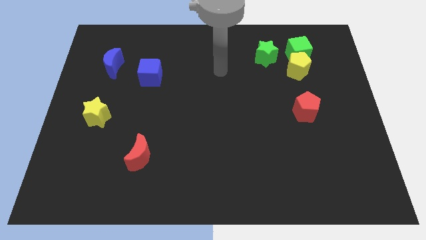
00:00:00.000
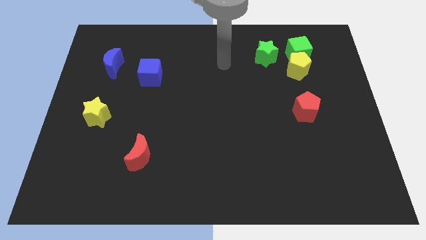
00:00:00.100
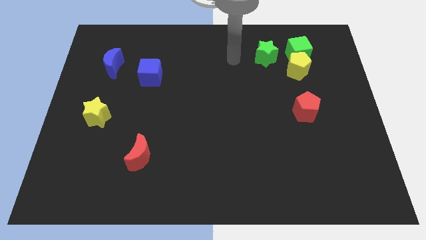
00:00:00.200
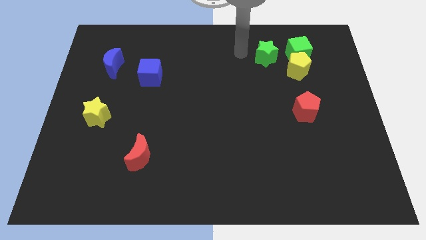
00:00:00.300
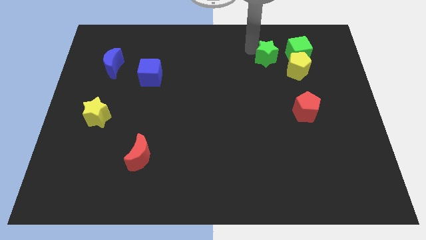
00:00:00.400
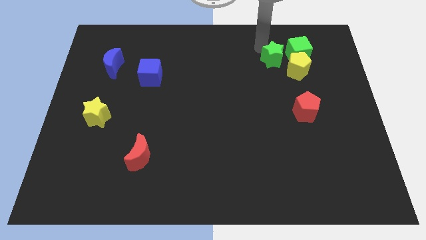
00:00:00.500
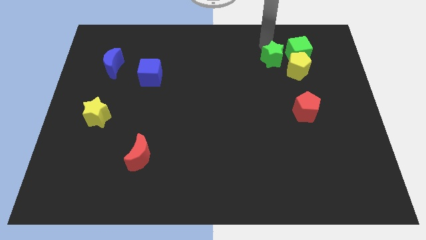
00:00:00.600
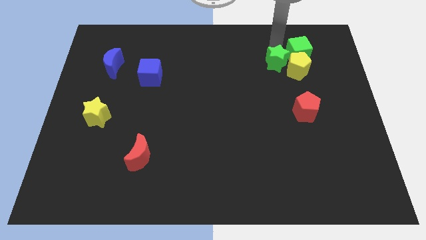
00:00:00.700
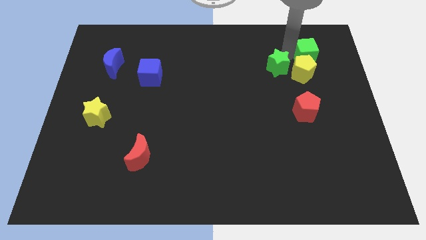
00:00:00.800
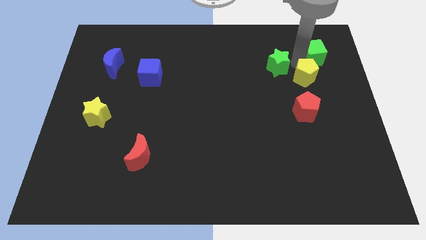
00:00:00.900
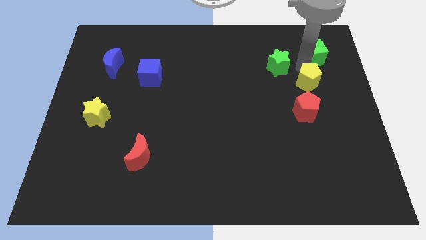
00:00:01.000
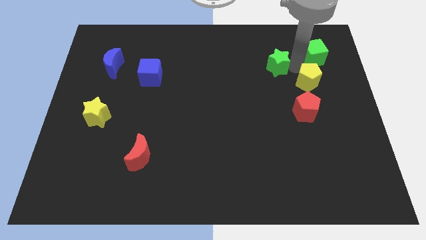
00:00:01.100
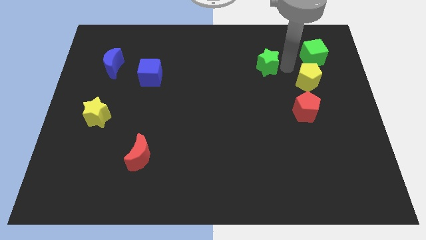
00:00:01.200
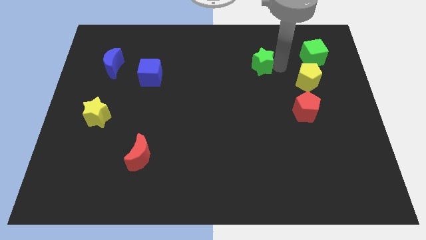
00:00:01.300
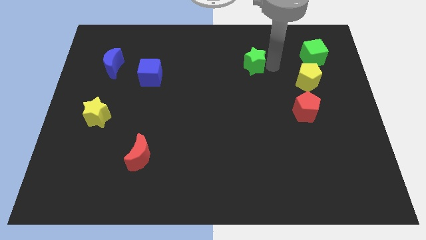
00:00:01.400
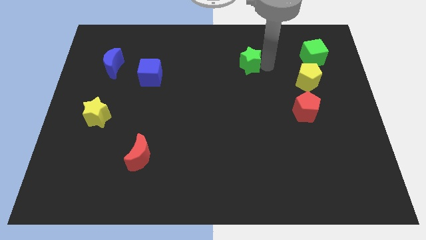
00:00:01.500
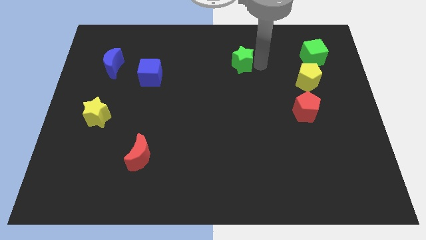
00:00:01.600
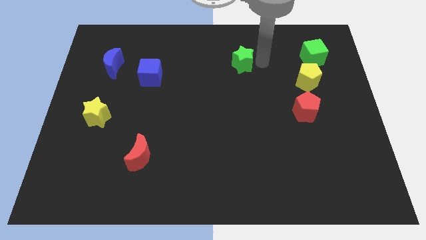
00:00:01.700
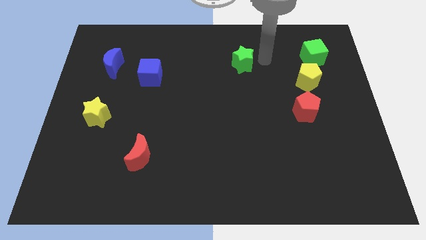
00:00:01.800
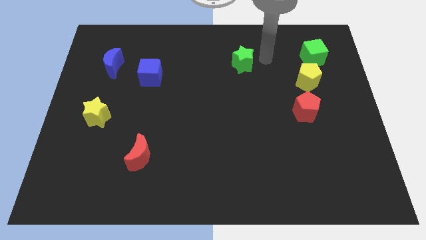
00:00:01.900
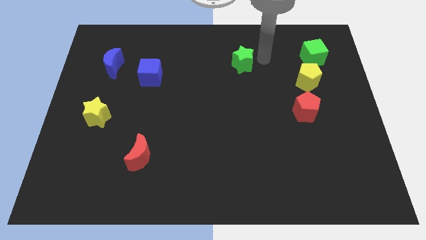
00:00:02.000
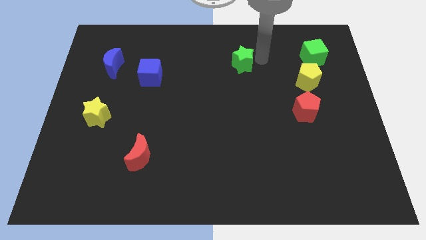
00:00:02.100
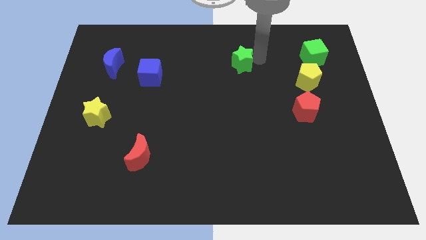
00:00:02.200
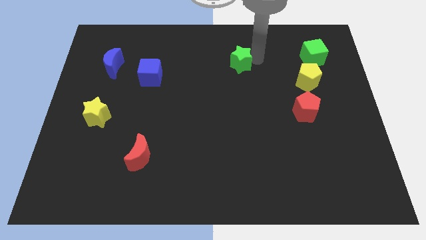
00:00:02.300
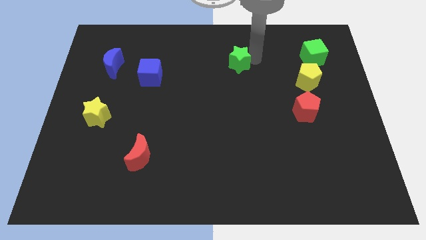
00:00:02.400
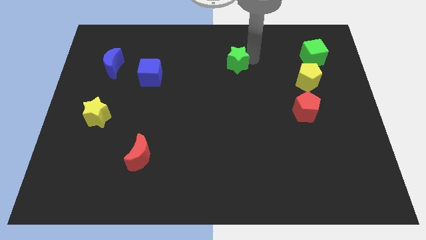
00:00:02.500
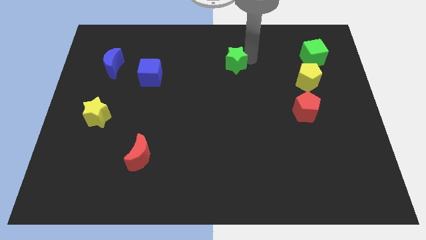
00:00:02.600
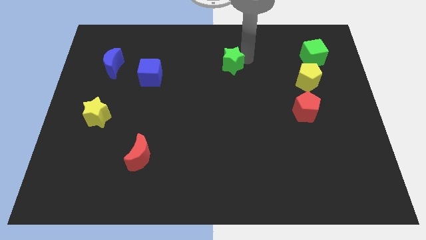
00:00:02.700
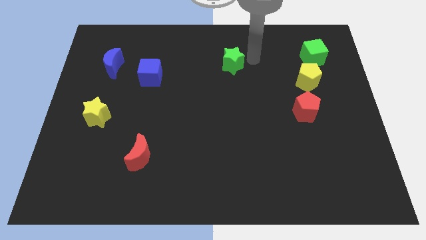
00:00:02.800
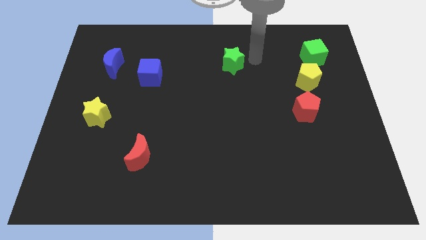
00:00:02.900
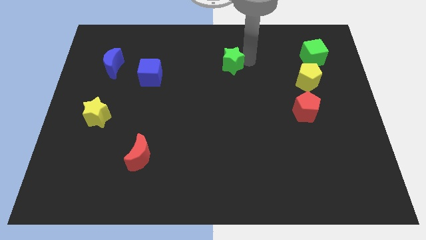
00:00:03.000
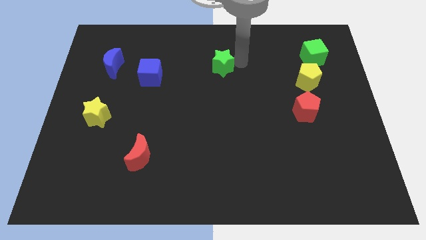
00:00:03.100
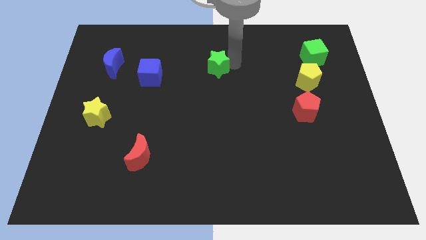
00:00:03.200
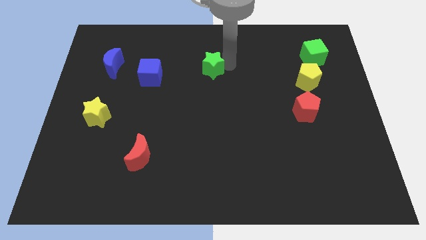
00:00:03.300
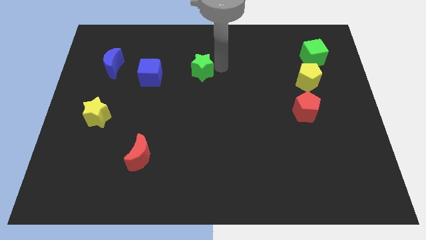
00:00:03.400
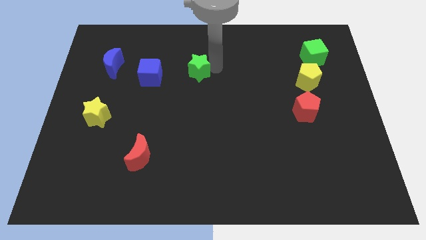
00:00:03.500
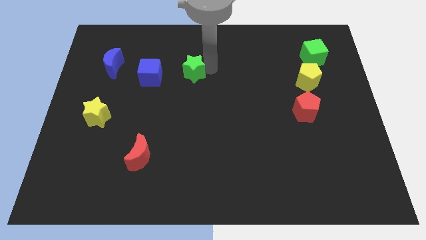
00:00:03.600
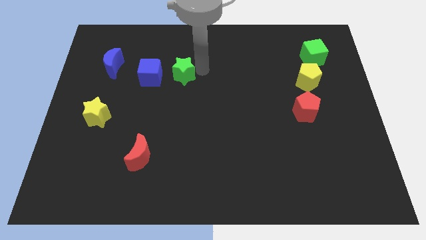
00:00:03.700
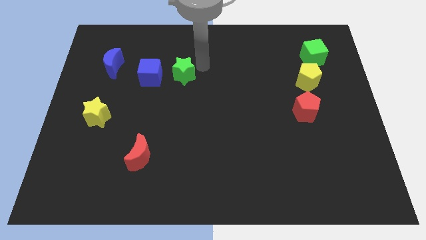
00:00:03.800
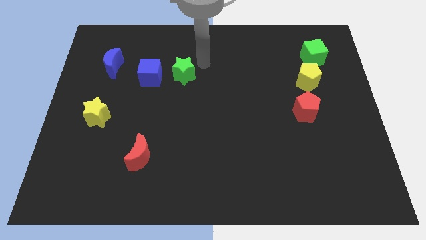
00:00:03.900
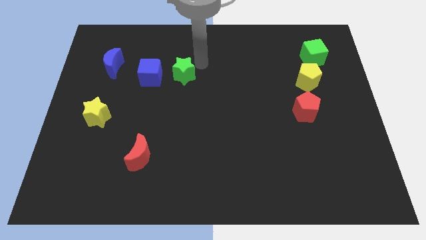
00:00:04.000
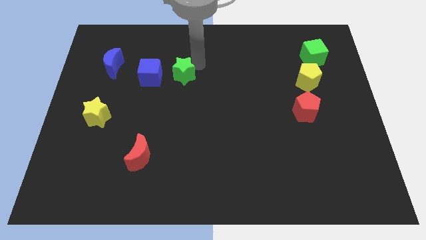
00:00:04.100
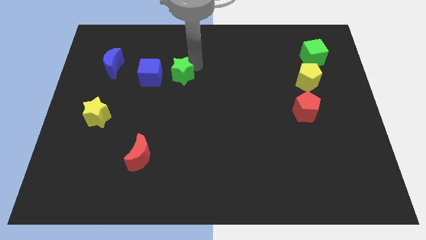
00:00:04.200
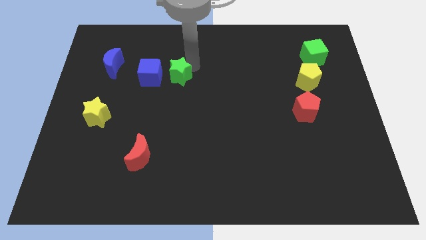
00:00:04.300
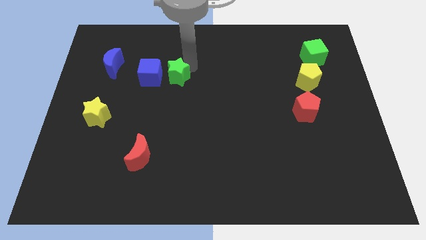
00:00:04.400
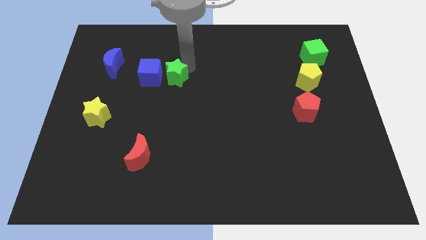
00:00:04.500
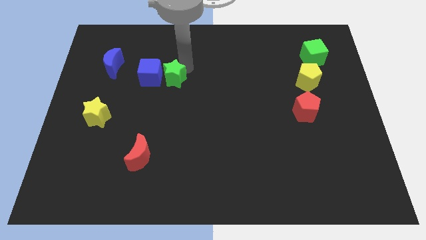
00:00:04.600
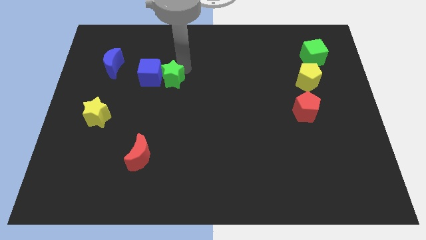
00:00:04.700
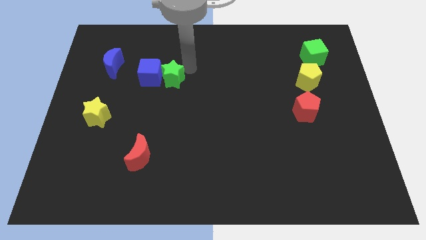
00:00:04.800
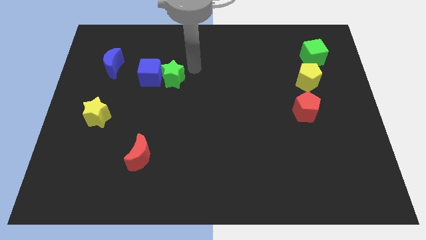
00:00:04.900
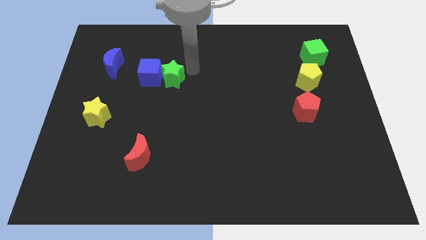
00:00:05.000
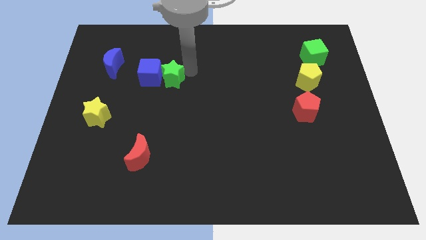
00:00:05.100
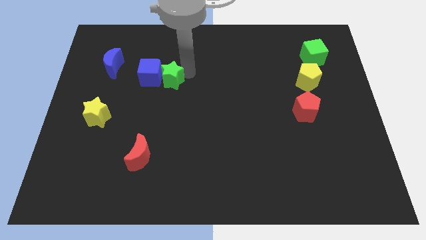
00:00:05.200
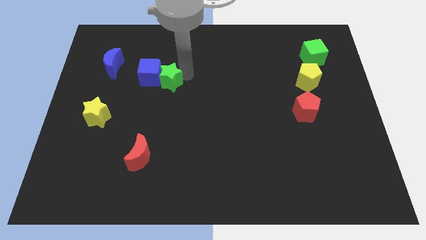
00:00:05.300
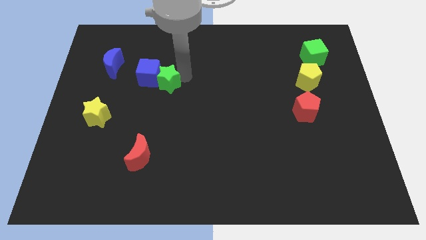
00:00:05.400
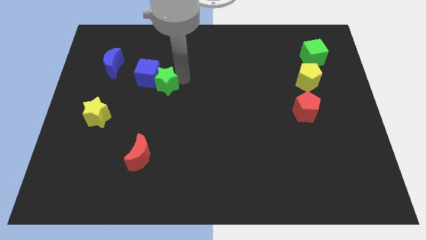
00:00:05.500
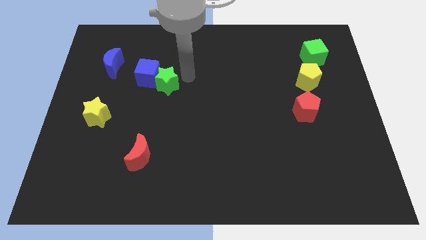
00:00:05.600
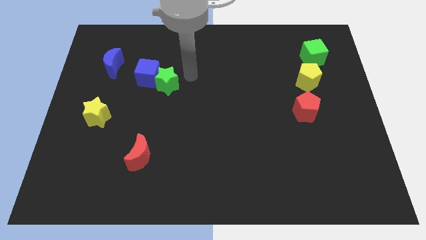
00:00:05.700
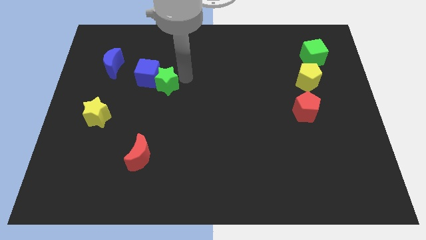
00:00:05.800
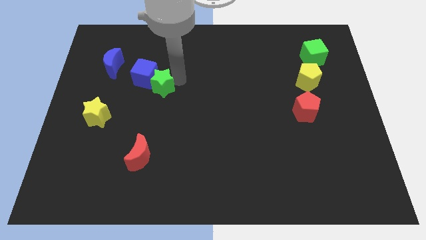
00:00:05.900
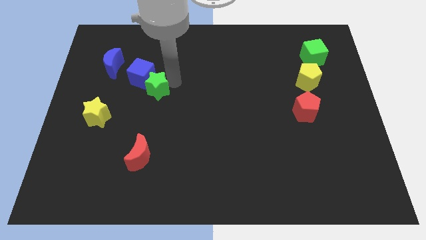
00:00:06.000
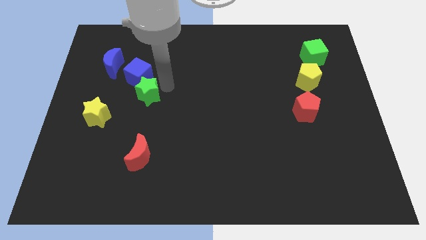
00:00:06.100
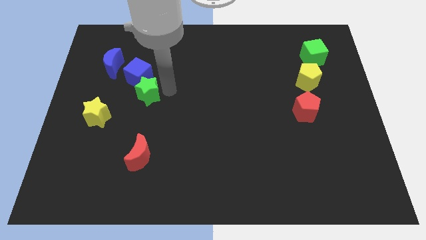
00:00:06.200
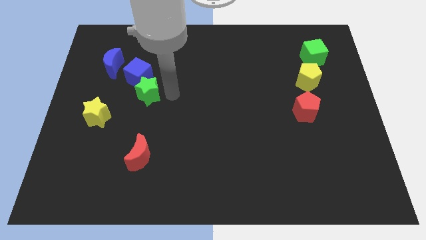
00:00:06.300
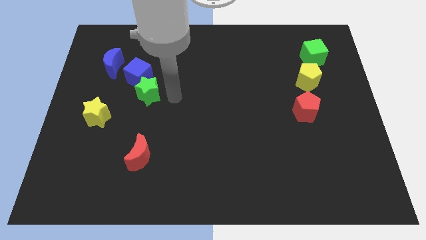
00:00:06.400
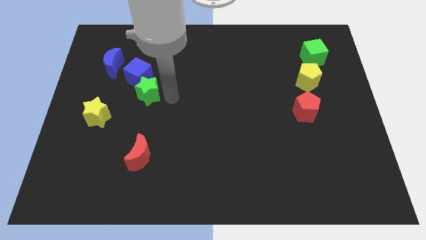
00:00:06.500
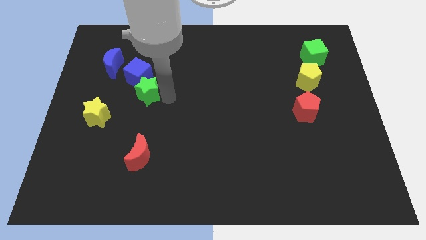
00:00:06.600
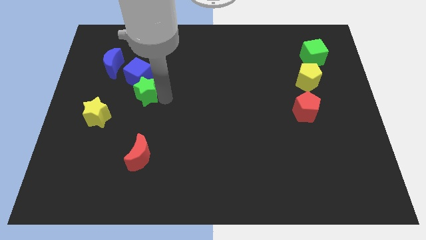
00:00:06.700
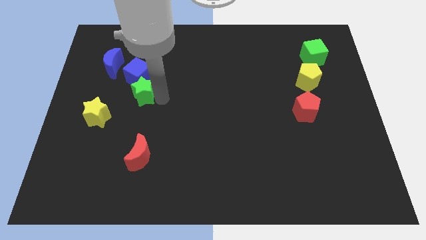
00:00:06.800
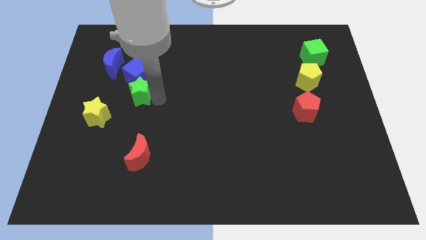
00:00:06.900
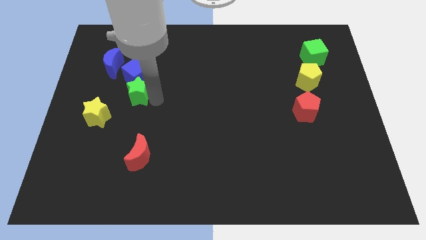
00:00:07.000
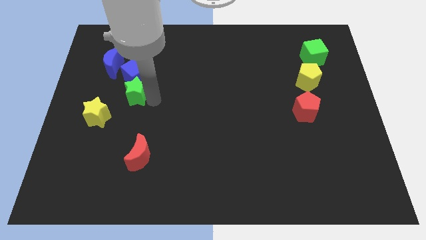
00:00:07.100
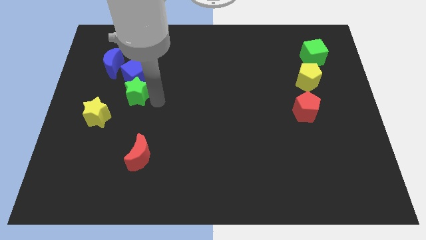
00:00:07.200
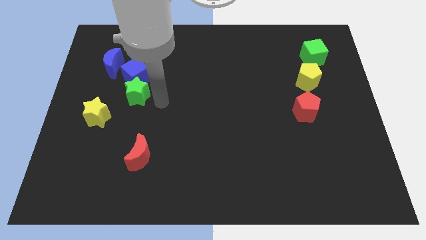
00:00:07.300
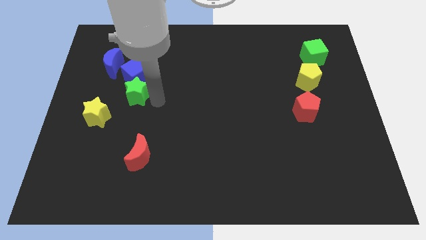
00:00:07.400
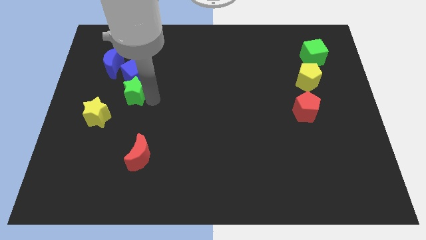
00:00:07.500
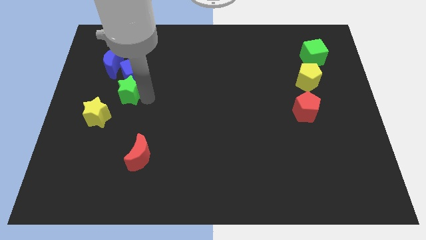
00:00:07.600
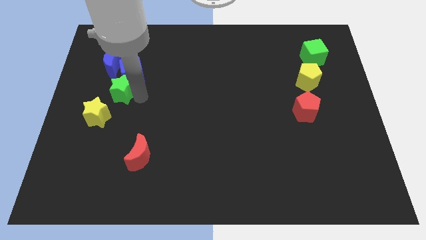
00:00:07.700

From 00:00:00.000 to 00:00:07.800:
push the green star above the yellow star
